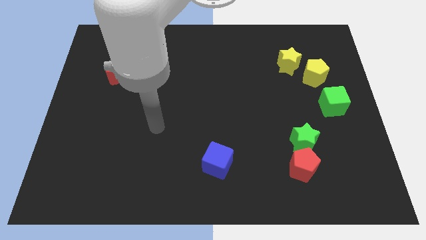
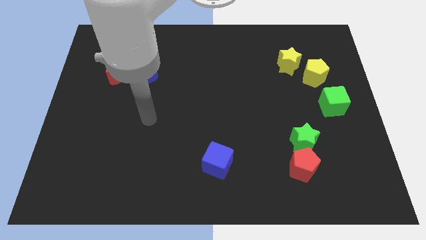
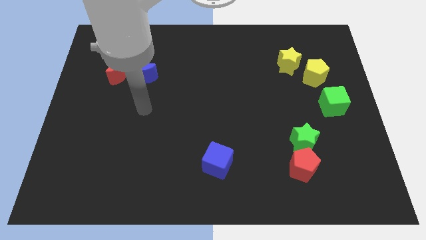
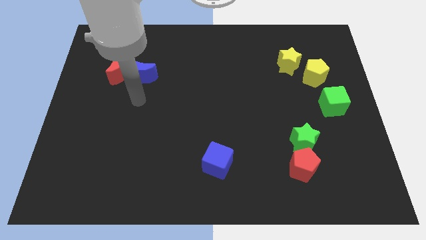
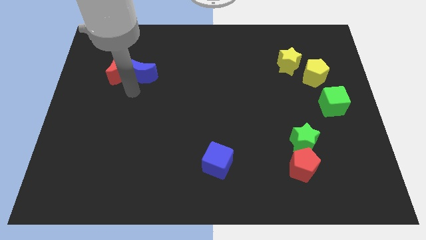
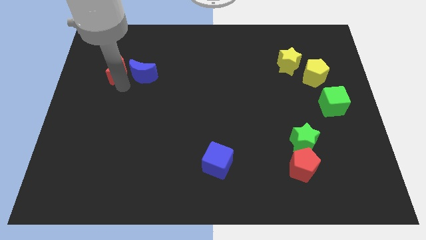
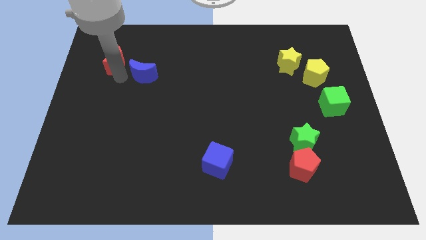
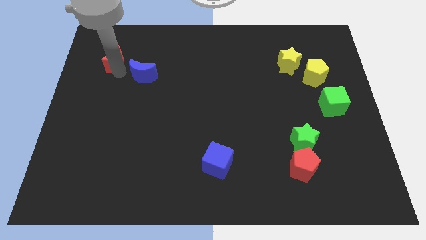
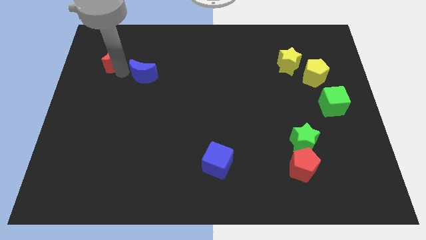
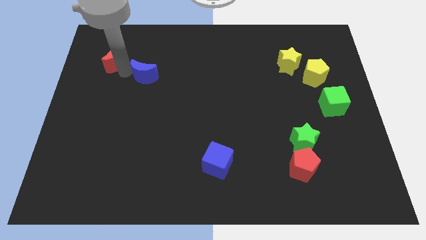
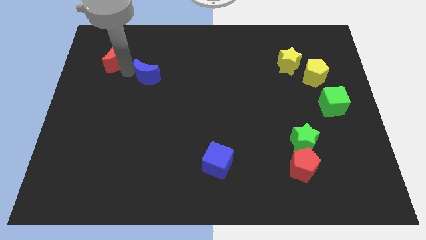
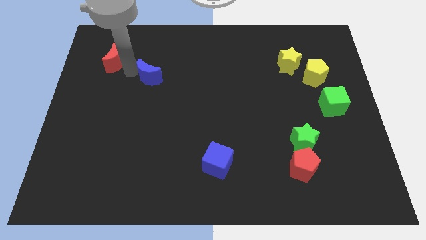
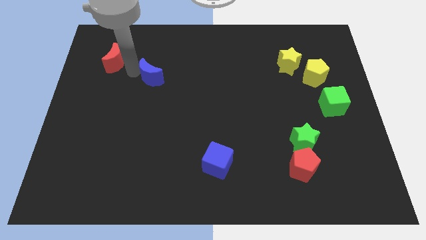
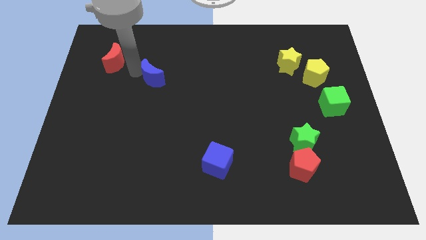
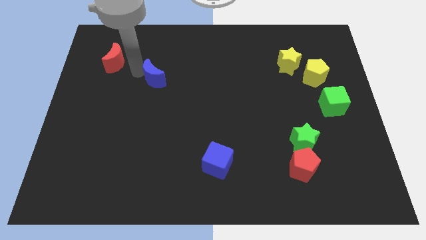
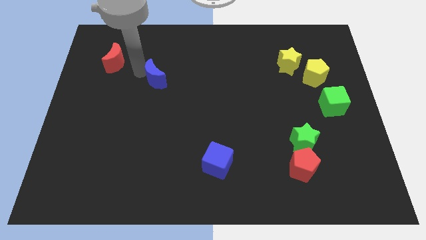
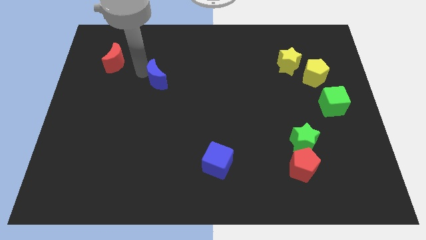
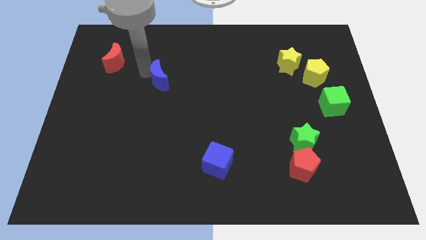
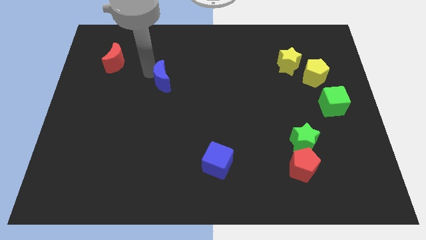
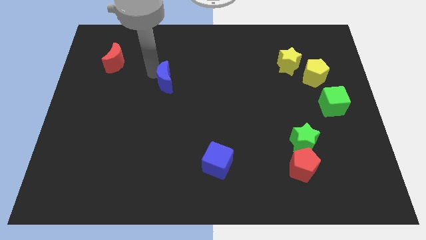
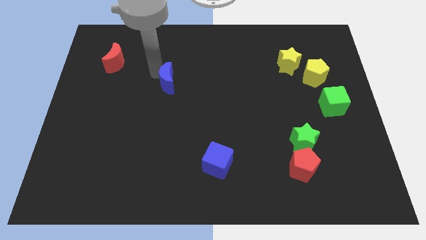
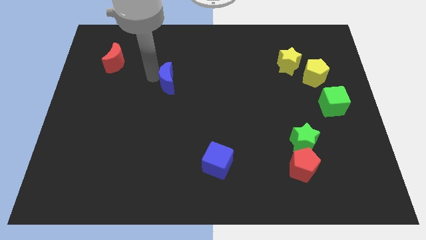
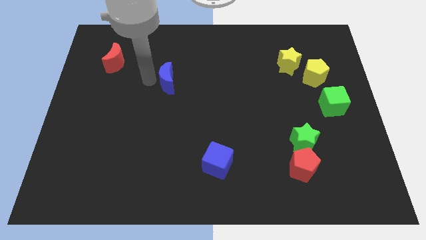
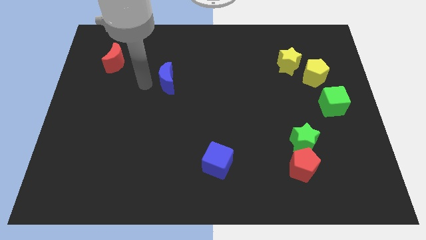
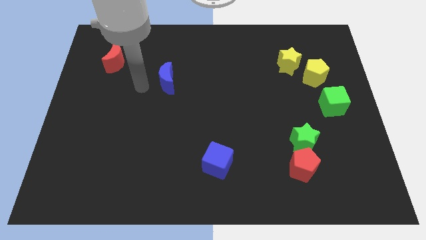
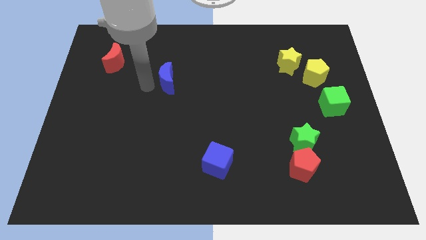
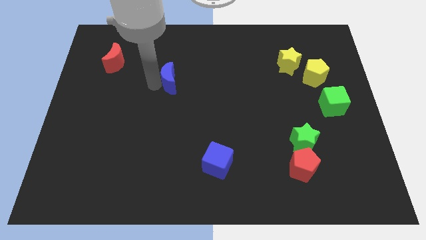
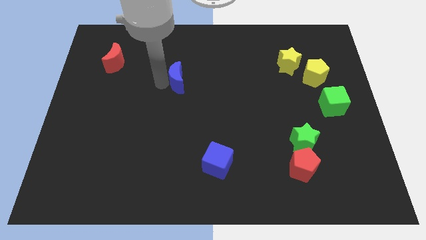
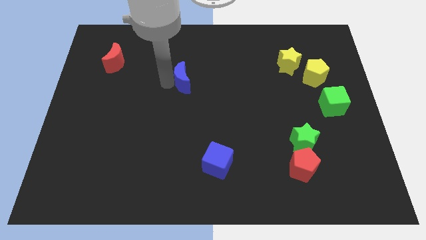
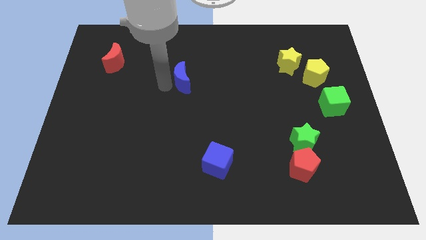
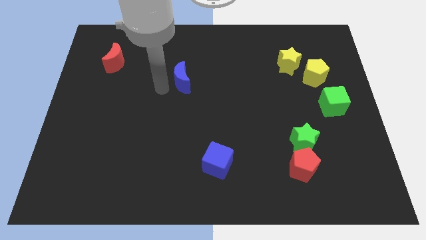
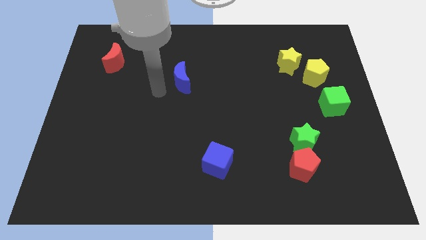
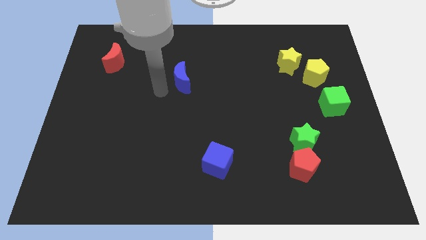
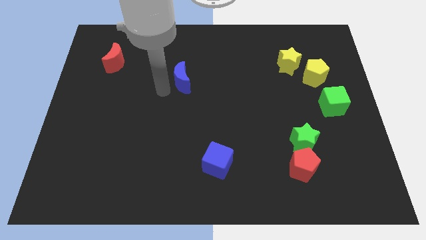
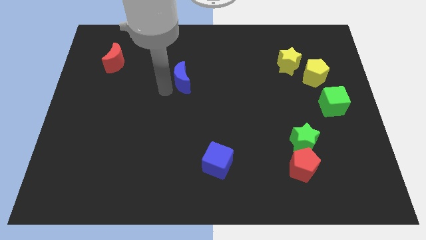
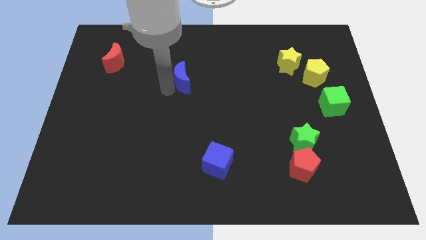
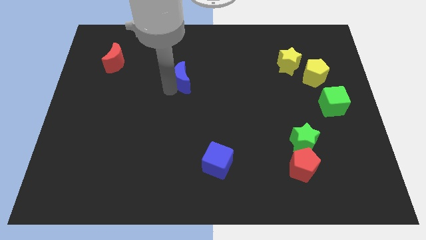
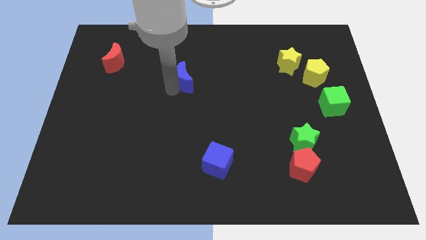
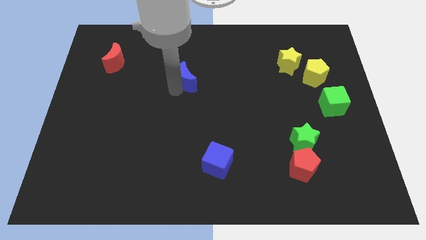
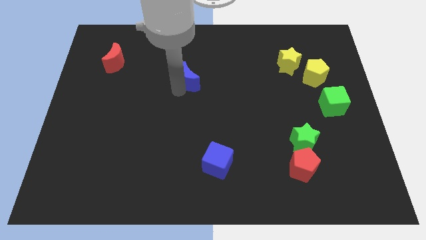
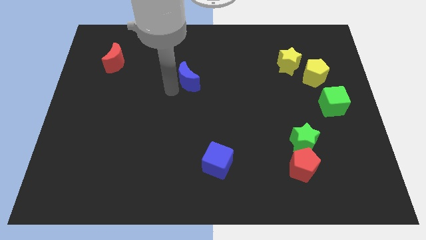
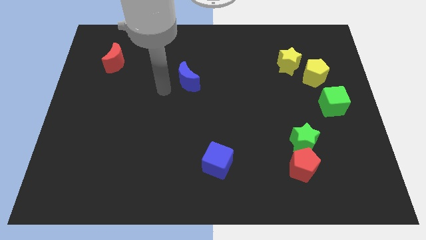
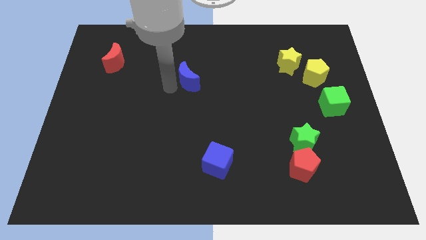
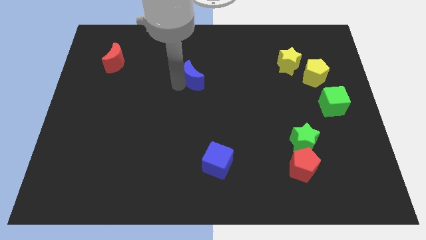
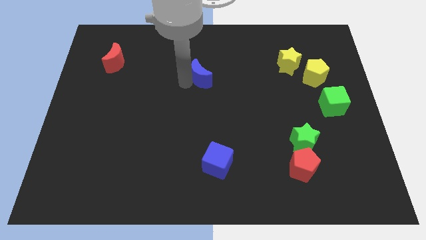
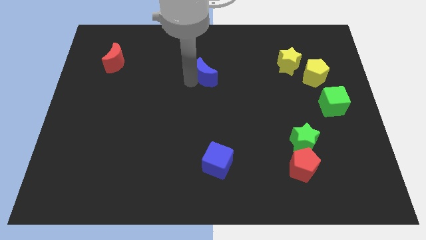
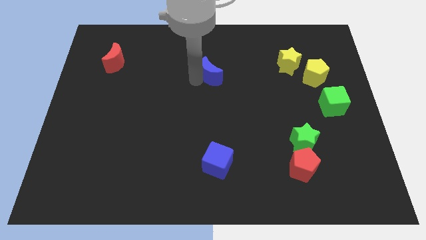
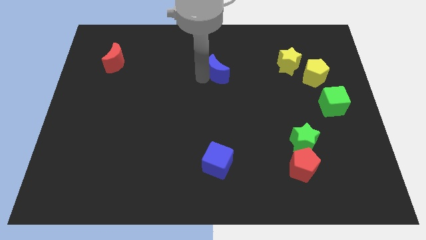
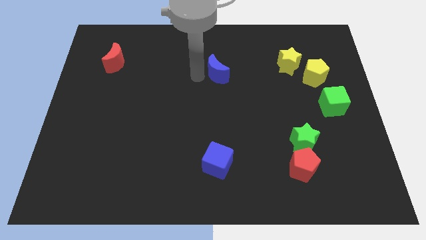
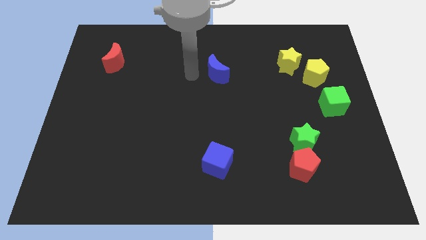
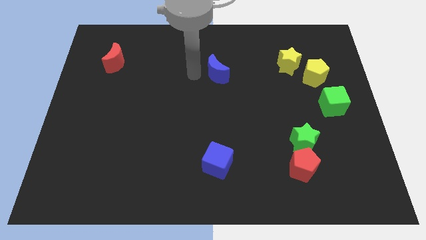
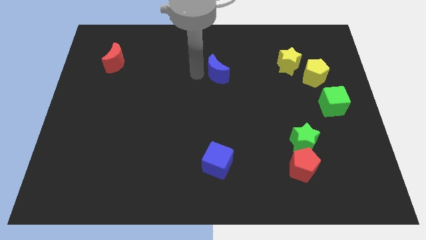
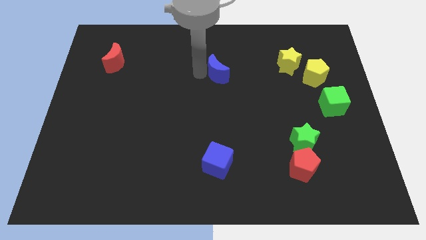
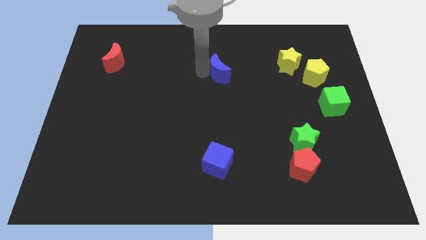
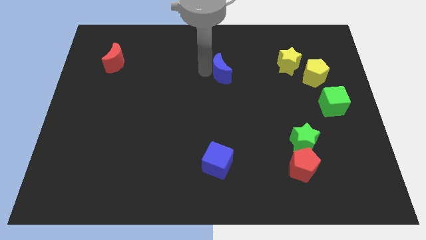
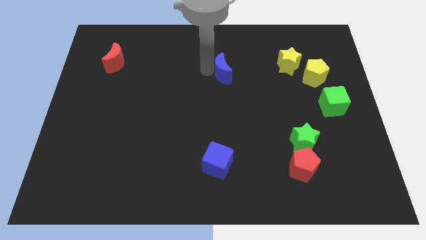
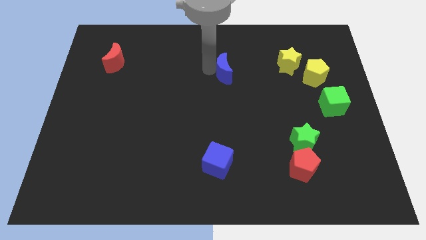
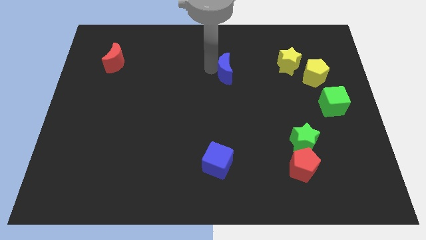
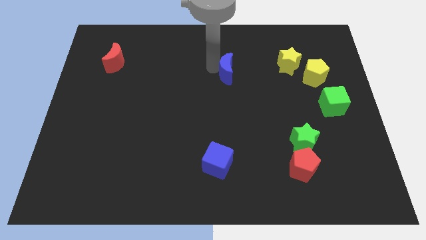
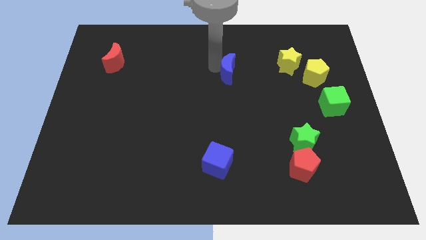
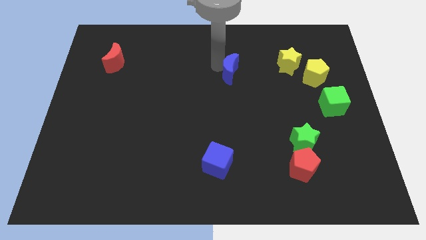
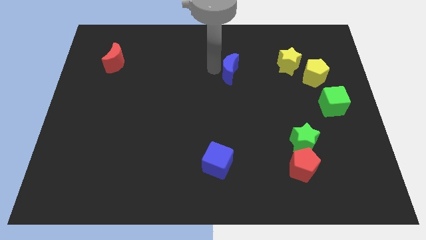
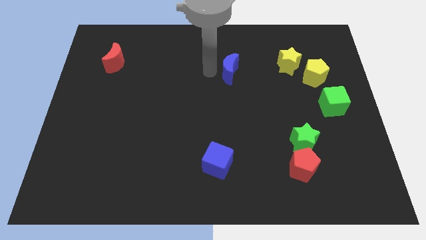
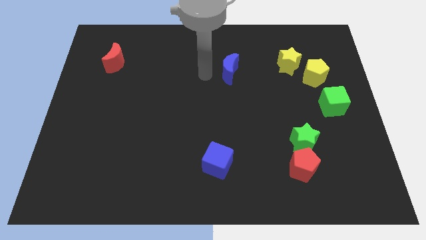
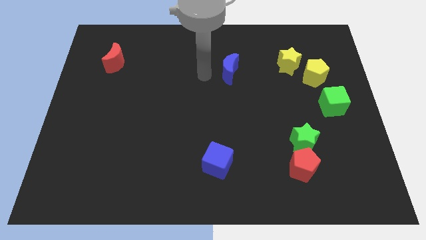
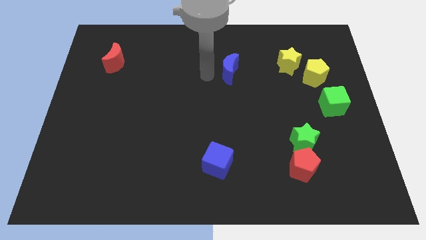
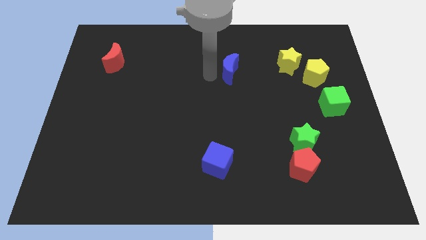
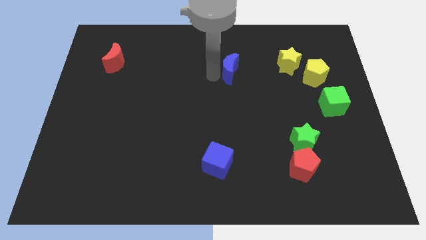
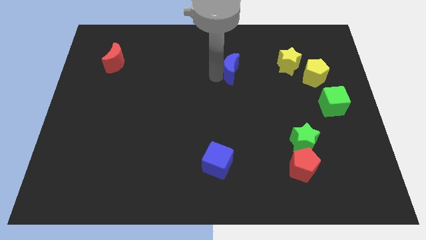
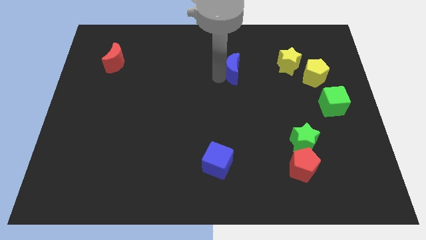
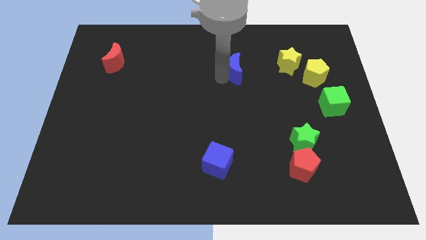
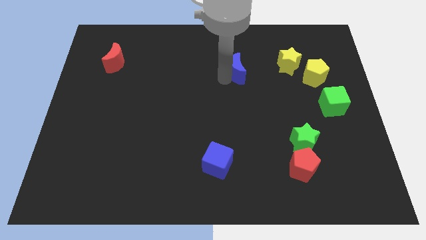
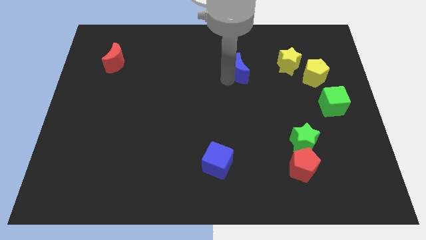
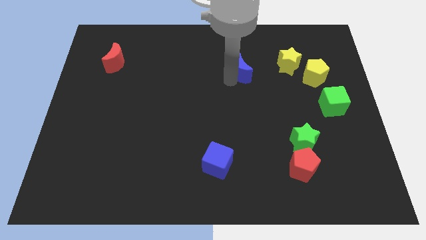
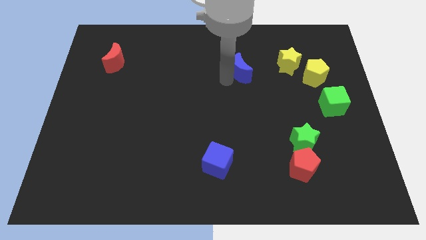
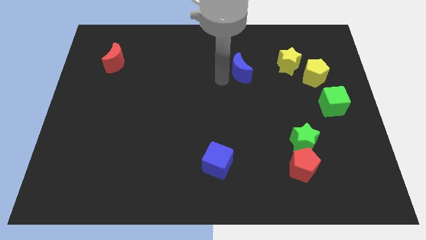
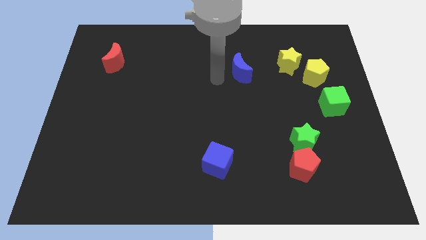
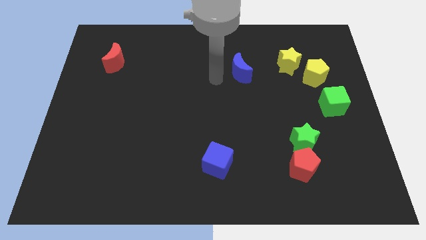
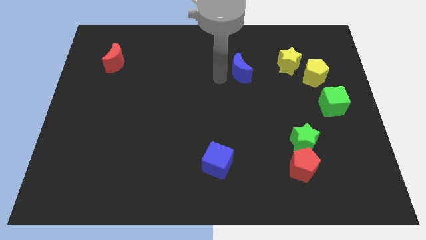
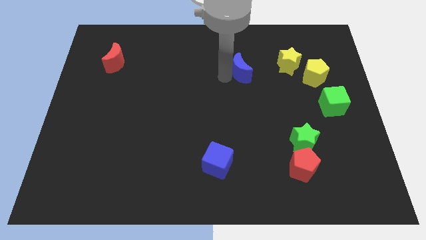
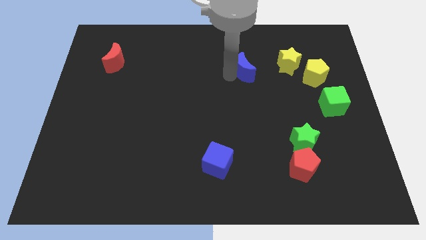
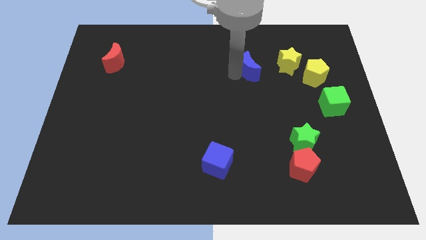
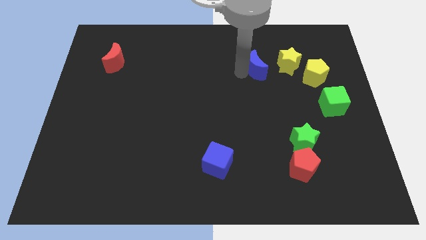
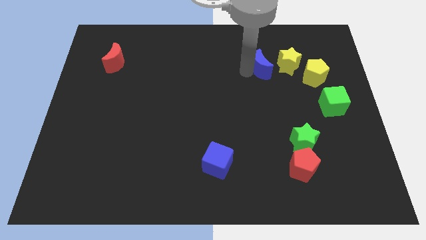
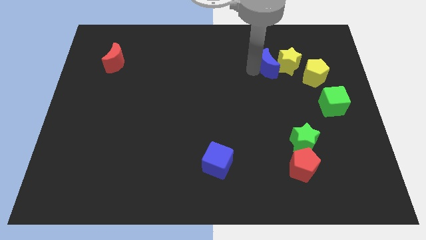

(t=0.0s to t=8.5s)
slide the blue moon close to the yellow star
